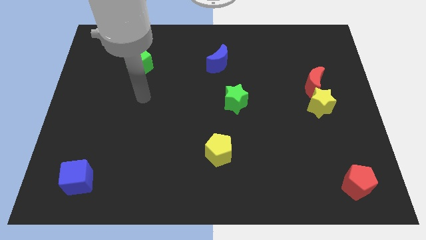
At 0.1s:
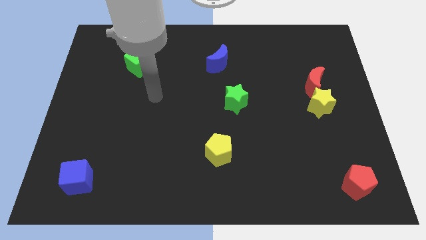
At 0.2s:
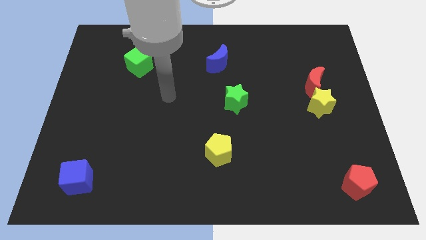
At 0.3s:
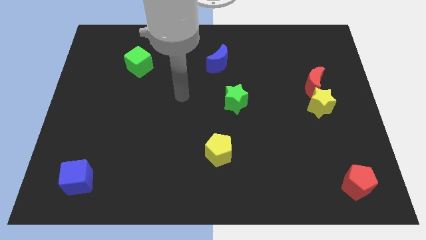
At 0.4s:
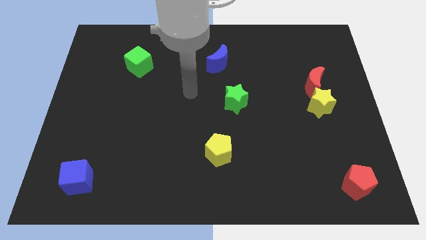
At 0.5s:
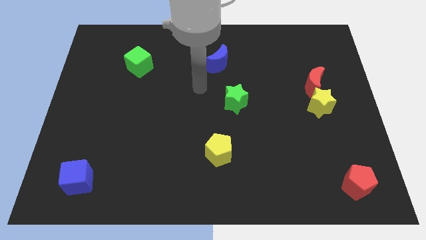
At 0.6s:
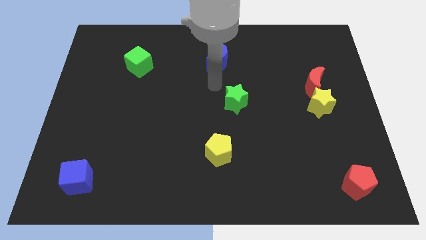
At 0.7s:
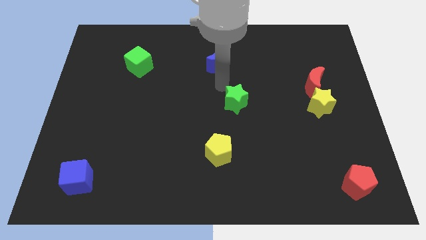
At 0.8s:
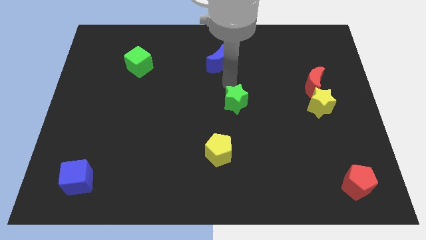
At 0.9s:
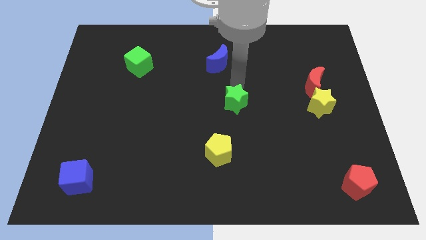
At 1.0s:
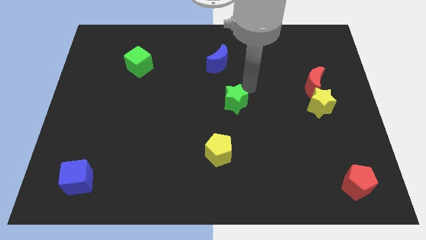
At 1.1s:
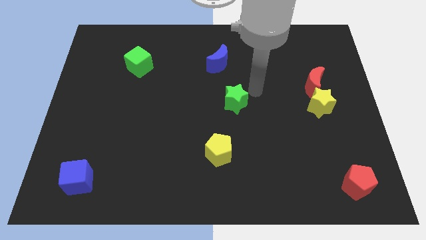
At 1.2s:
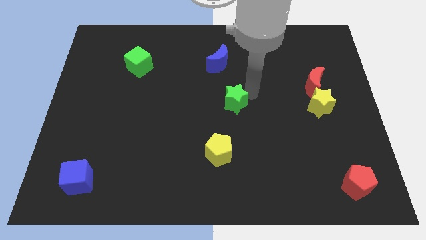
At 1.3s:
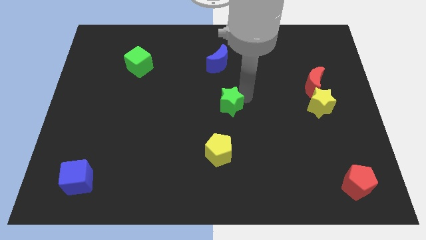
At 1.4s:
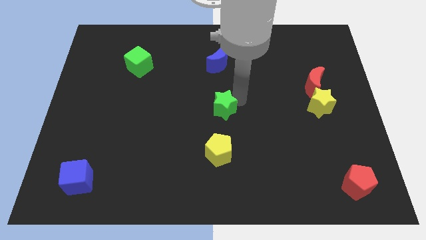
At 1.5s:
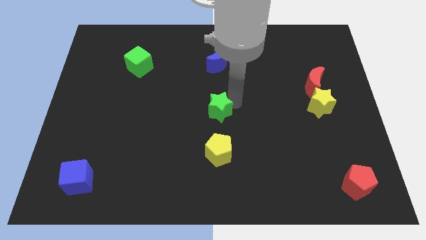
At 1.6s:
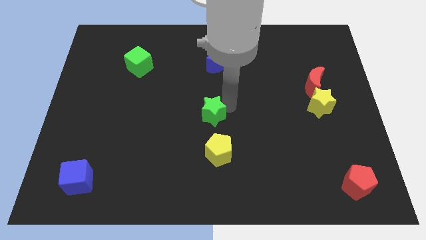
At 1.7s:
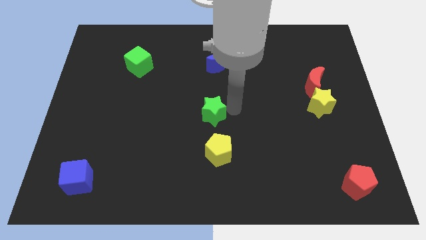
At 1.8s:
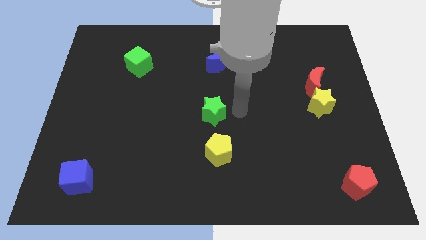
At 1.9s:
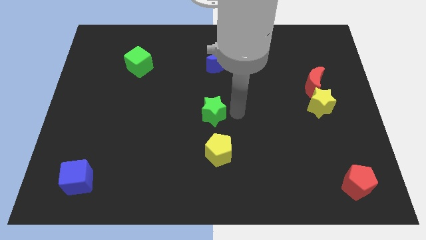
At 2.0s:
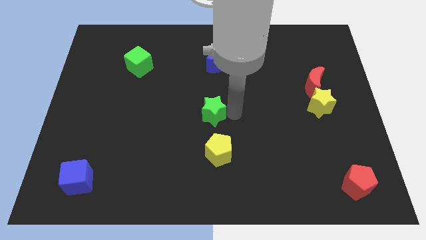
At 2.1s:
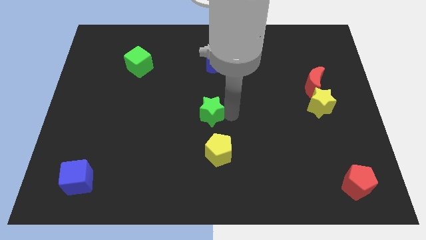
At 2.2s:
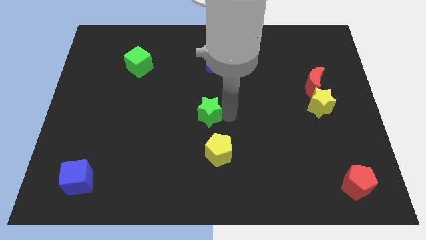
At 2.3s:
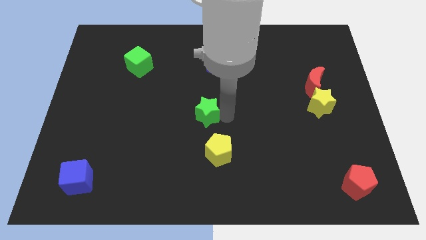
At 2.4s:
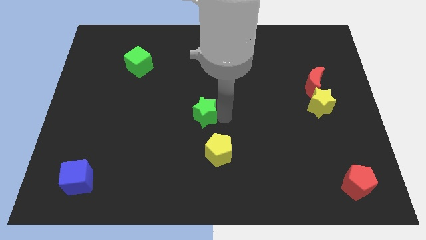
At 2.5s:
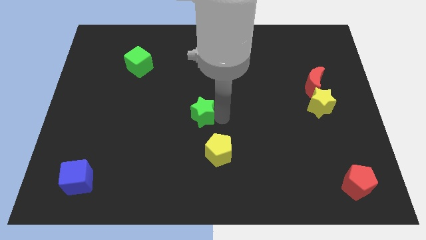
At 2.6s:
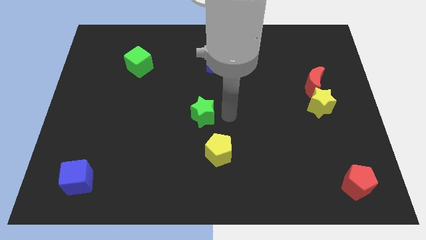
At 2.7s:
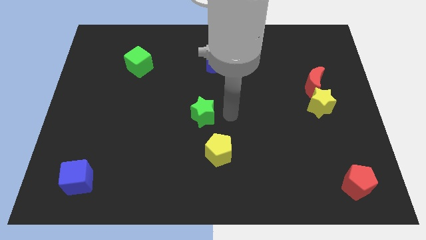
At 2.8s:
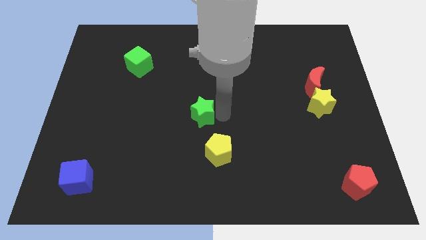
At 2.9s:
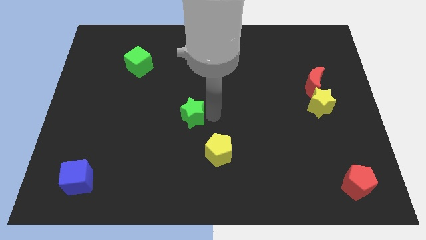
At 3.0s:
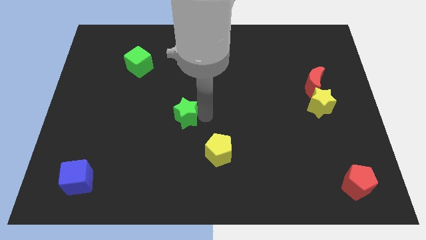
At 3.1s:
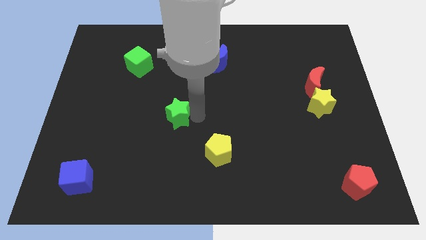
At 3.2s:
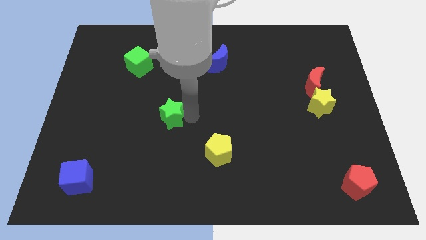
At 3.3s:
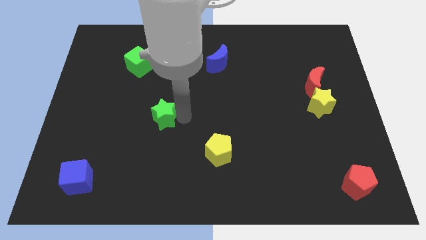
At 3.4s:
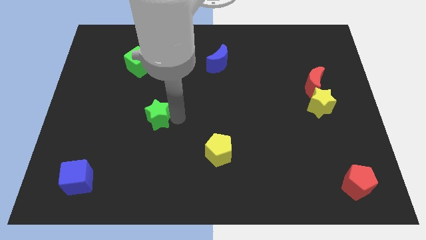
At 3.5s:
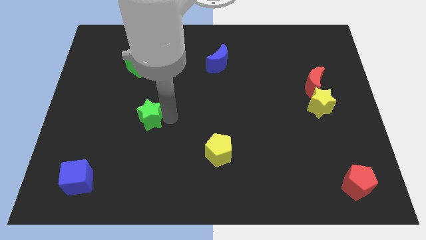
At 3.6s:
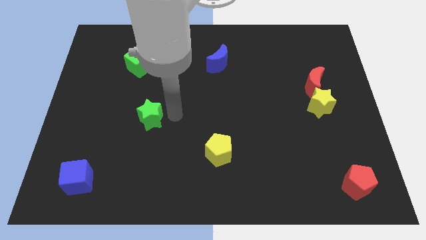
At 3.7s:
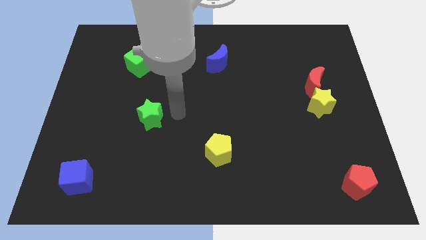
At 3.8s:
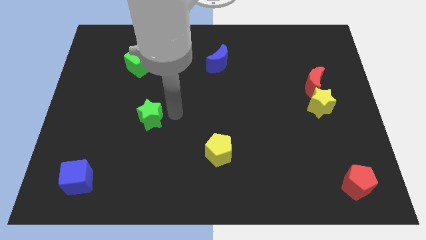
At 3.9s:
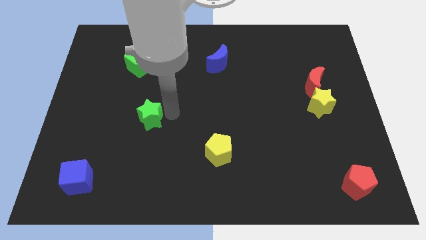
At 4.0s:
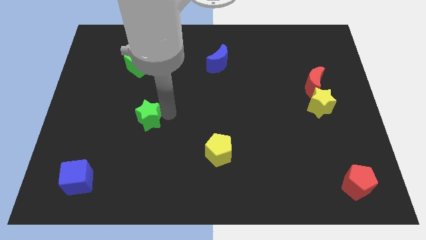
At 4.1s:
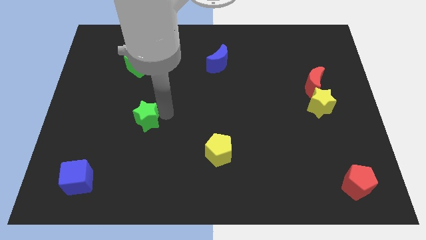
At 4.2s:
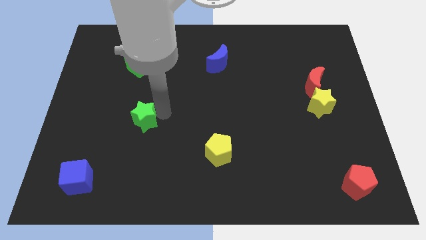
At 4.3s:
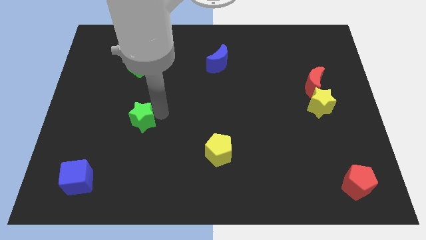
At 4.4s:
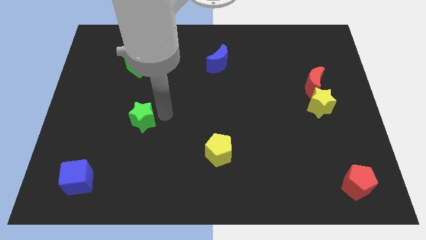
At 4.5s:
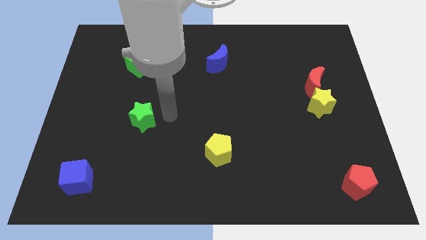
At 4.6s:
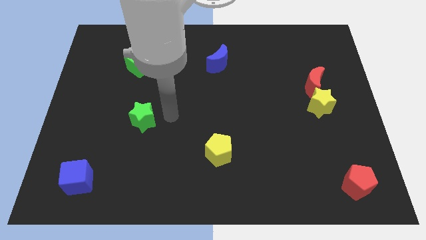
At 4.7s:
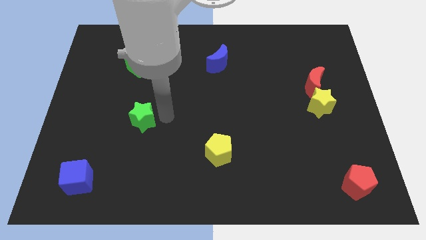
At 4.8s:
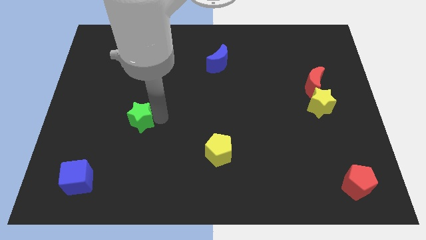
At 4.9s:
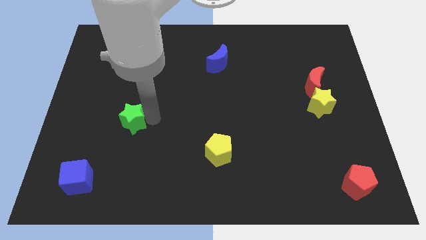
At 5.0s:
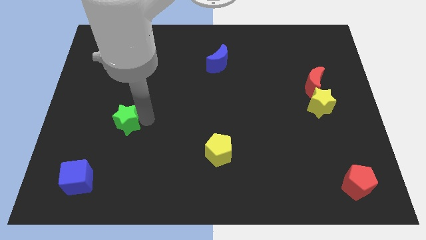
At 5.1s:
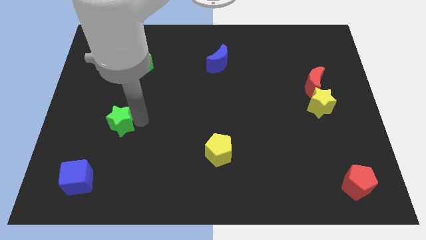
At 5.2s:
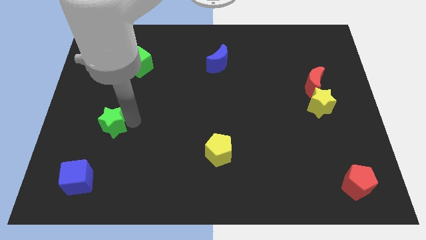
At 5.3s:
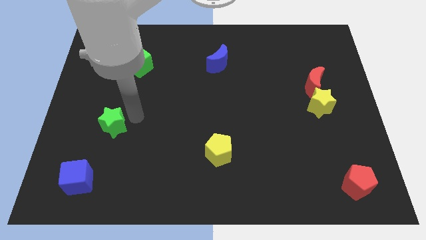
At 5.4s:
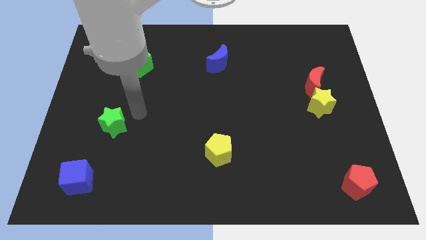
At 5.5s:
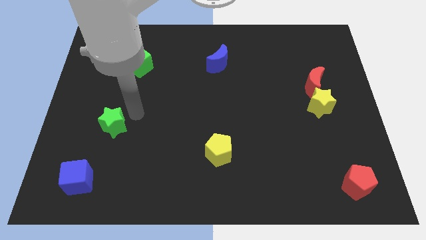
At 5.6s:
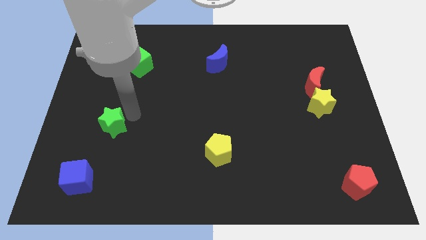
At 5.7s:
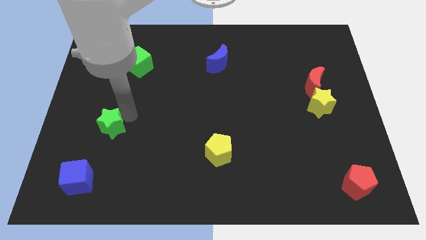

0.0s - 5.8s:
put the green star above the blue cube
